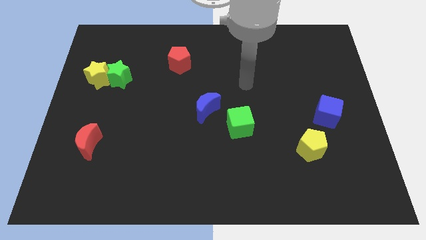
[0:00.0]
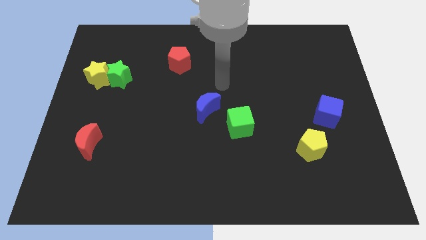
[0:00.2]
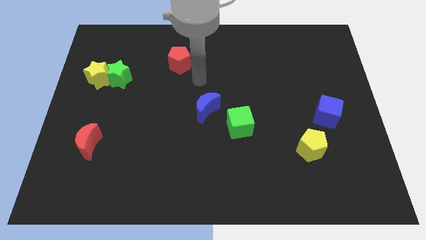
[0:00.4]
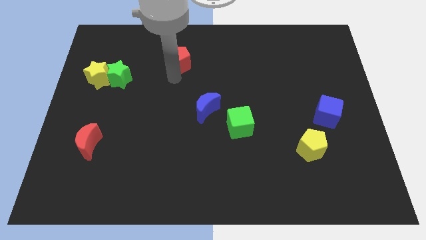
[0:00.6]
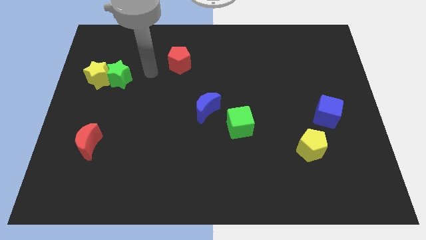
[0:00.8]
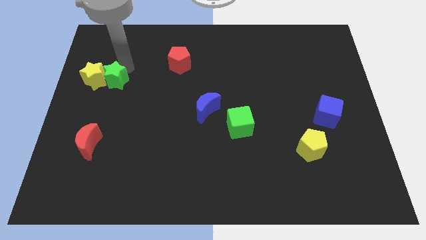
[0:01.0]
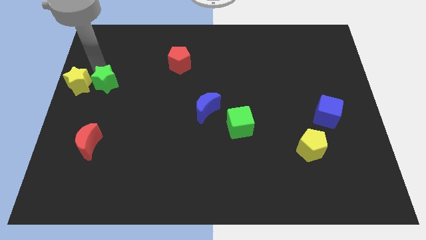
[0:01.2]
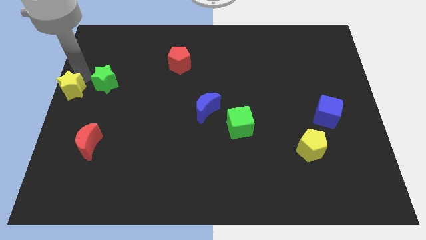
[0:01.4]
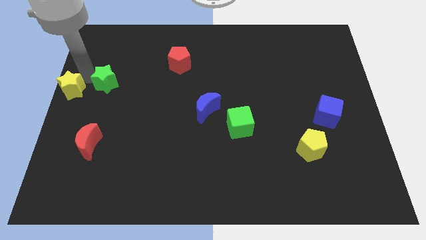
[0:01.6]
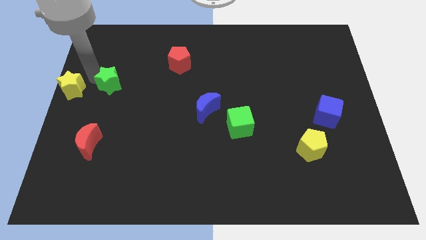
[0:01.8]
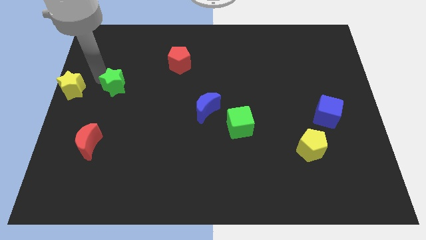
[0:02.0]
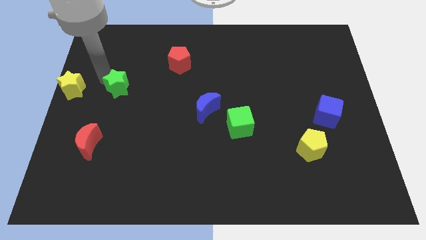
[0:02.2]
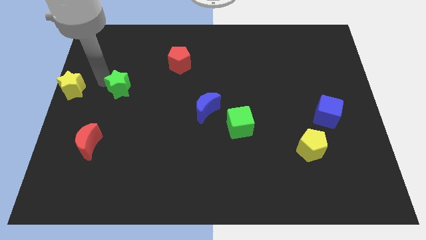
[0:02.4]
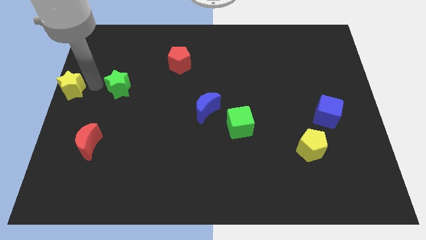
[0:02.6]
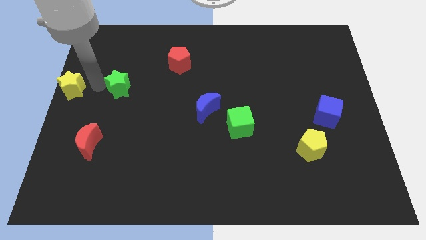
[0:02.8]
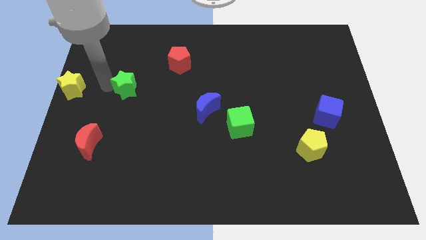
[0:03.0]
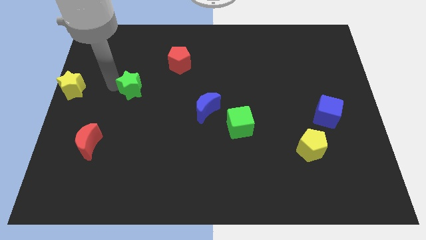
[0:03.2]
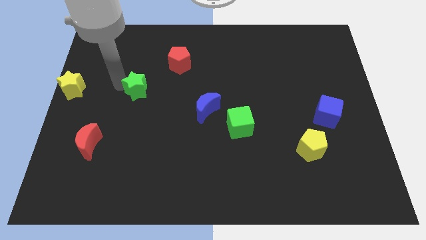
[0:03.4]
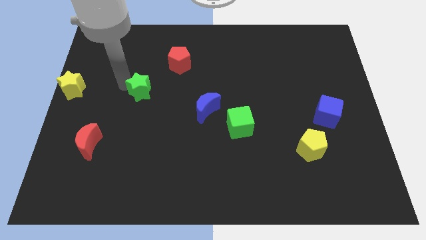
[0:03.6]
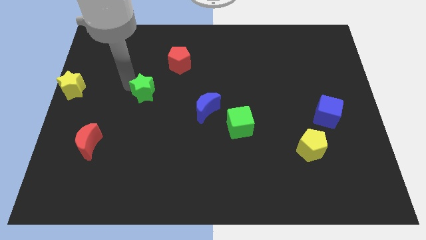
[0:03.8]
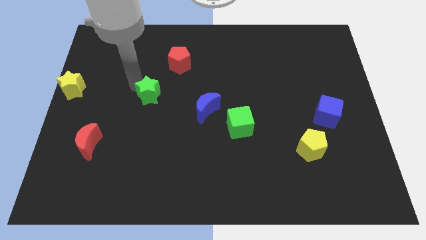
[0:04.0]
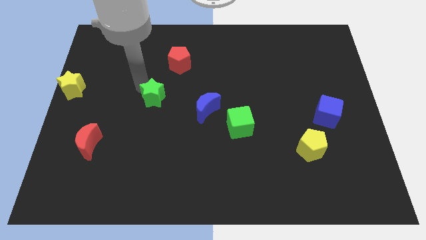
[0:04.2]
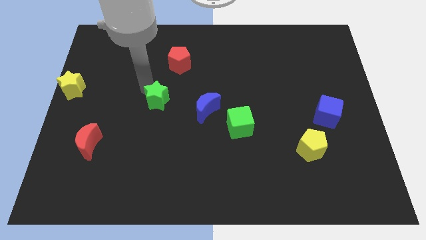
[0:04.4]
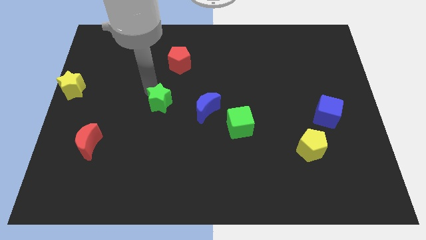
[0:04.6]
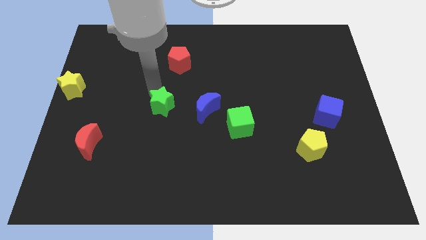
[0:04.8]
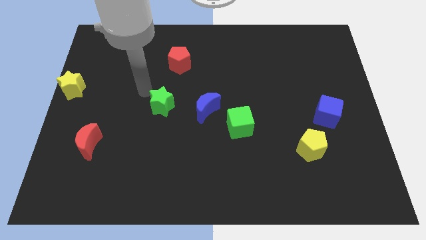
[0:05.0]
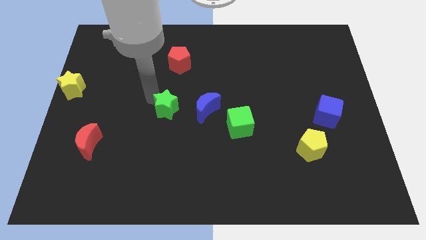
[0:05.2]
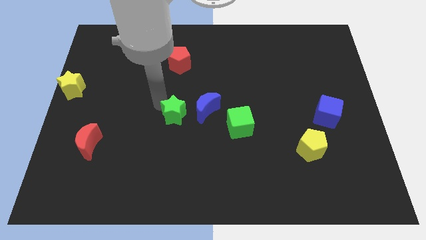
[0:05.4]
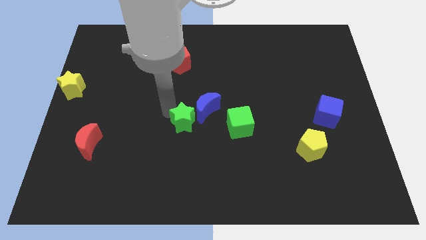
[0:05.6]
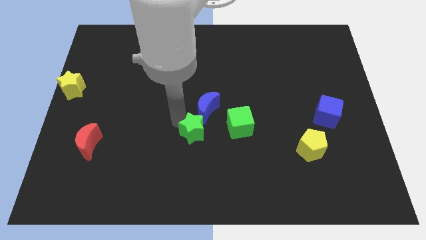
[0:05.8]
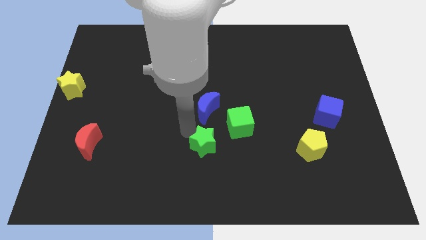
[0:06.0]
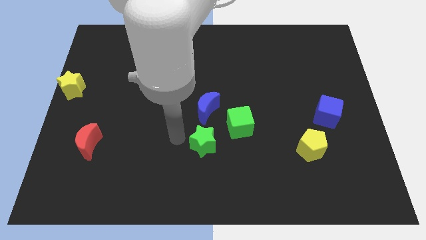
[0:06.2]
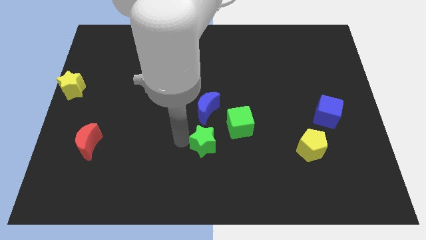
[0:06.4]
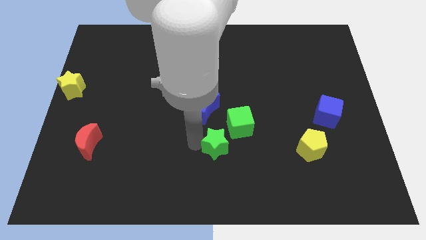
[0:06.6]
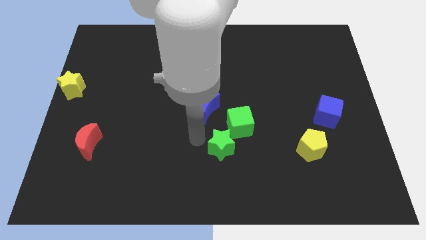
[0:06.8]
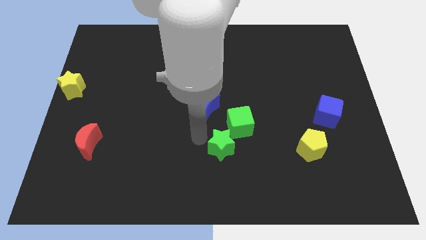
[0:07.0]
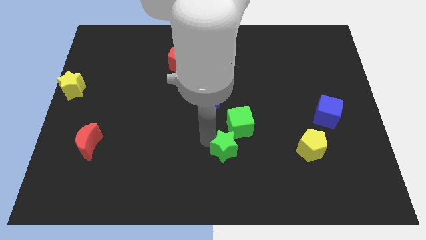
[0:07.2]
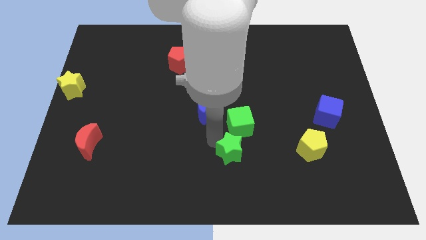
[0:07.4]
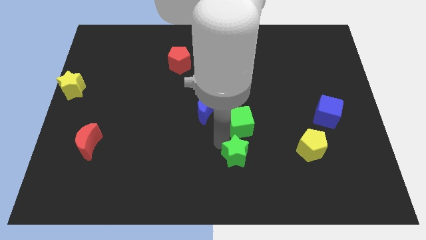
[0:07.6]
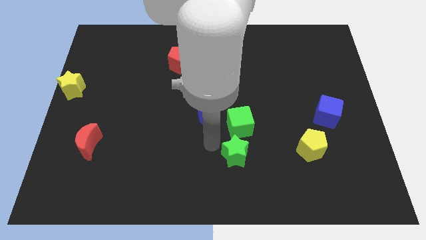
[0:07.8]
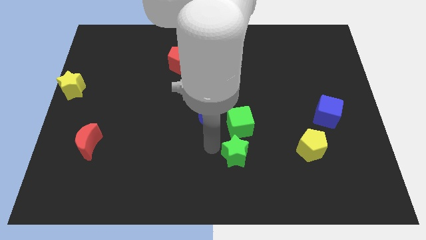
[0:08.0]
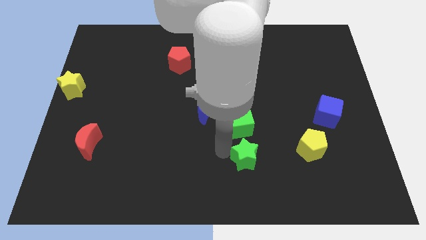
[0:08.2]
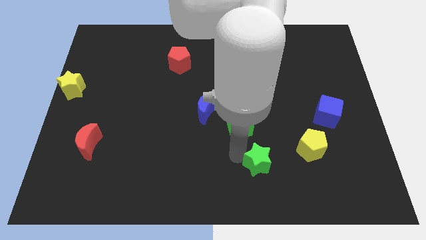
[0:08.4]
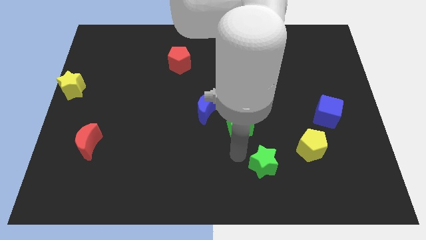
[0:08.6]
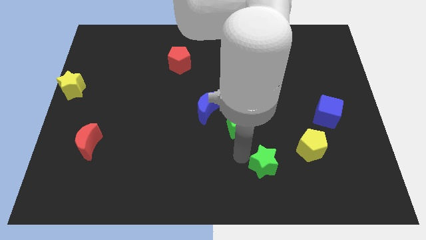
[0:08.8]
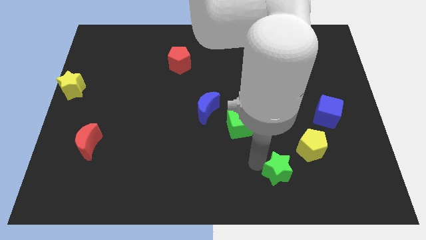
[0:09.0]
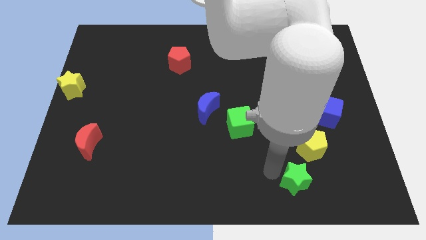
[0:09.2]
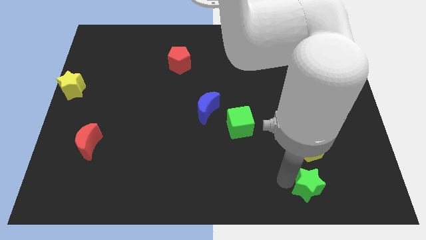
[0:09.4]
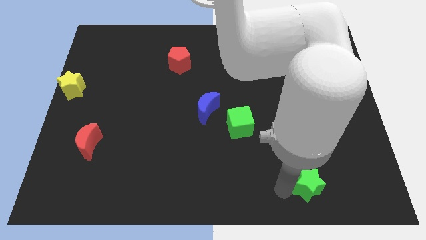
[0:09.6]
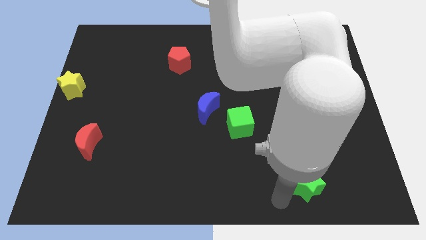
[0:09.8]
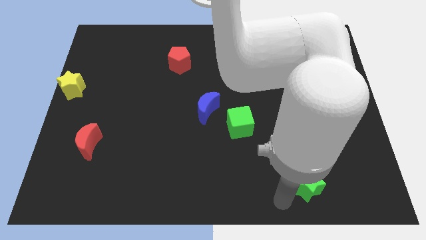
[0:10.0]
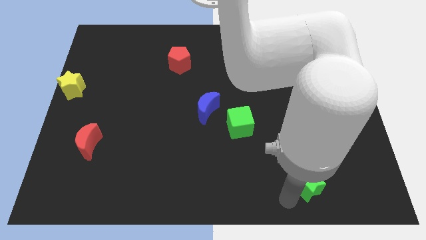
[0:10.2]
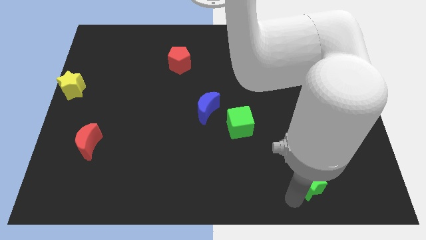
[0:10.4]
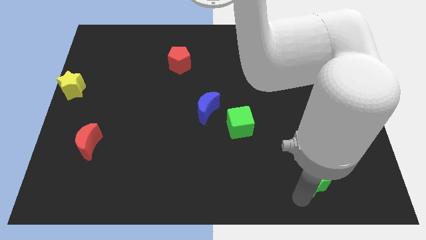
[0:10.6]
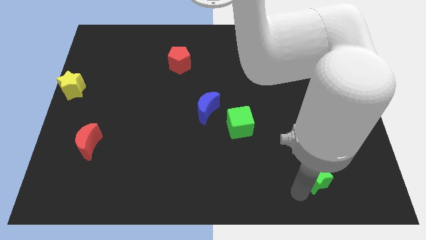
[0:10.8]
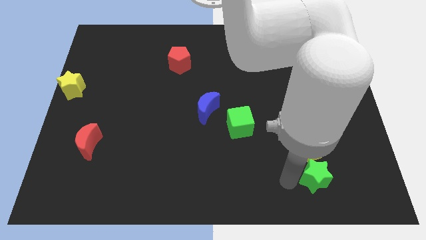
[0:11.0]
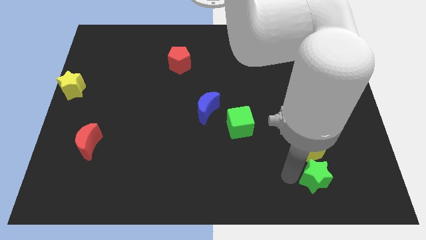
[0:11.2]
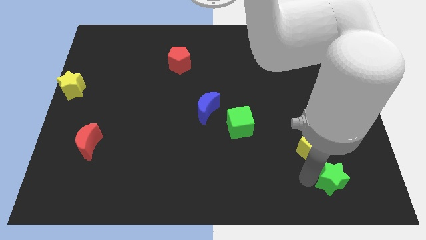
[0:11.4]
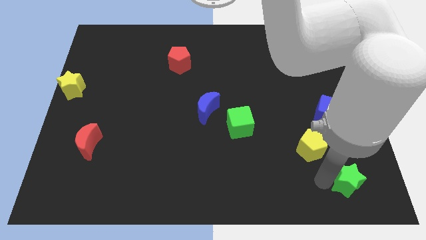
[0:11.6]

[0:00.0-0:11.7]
slide the green star to the bottom right corner
